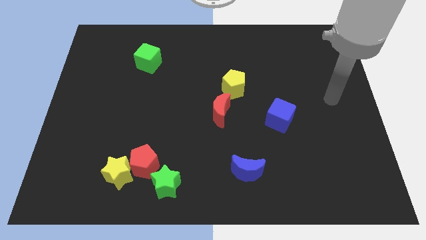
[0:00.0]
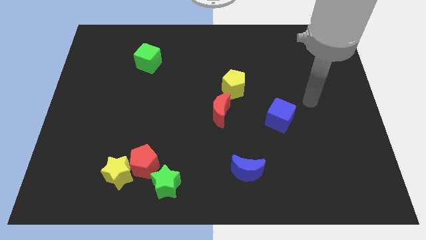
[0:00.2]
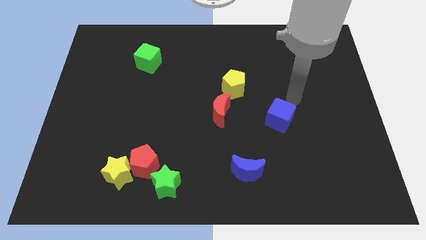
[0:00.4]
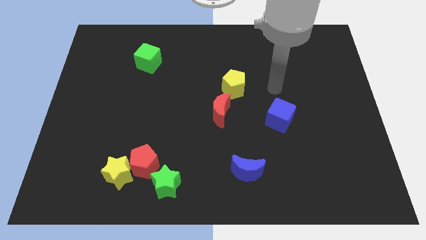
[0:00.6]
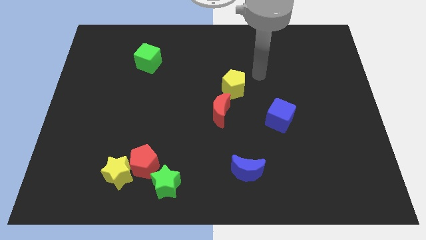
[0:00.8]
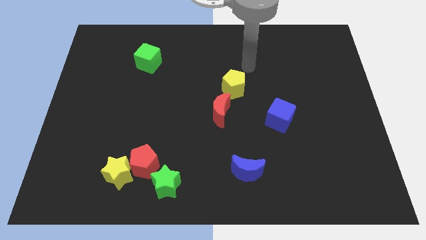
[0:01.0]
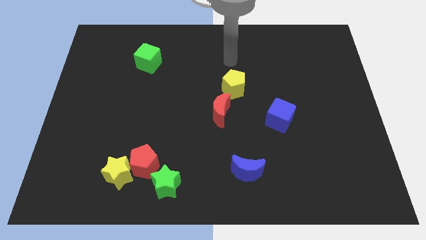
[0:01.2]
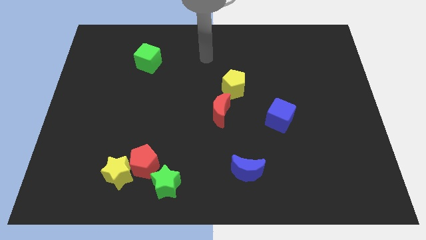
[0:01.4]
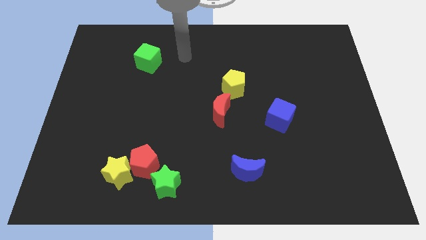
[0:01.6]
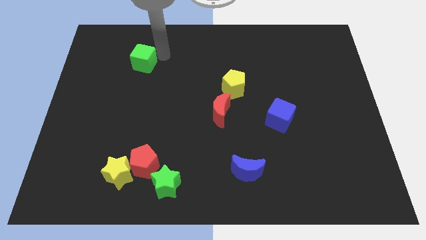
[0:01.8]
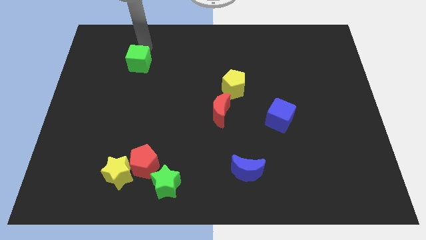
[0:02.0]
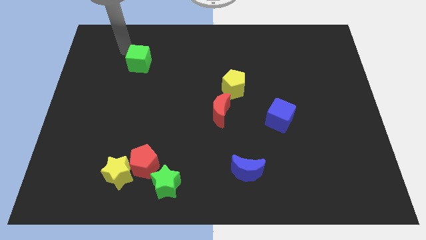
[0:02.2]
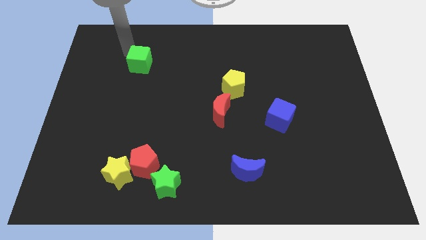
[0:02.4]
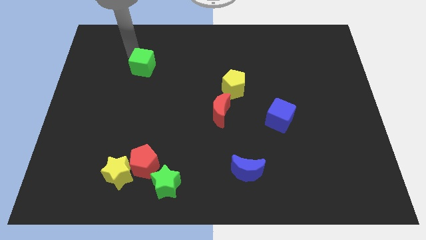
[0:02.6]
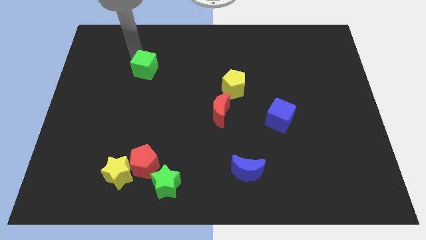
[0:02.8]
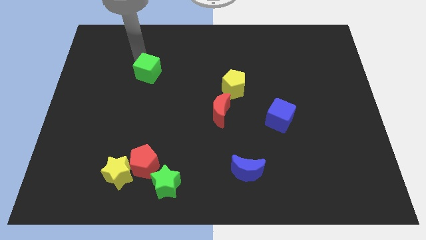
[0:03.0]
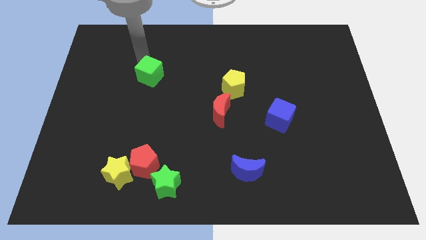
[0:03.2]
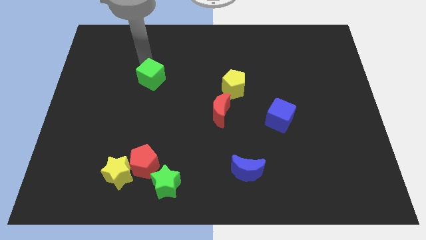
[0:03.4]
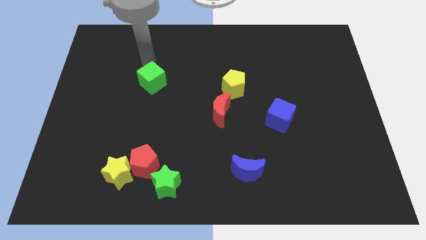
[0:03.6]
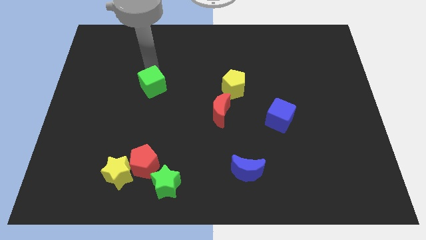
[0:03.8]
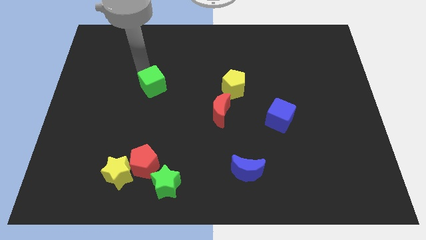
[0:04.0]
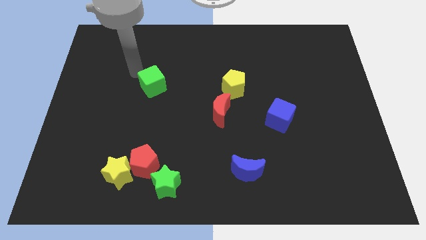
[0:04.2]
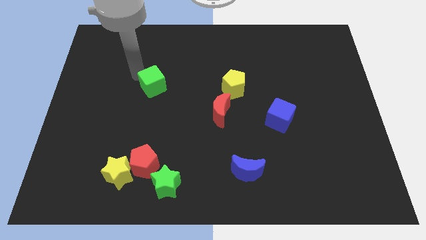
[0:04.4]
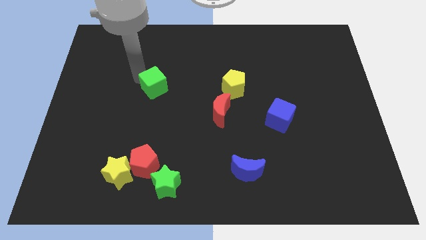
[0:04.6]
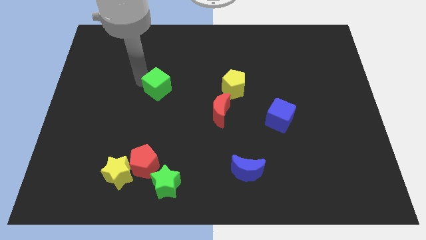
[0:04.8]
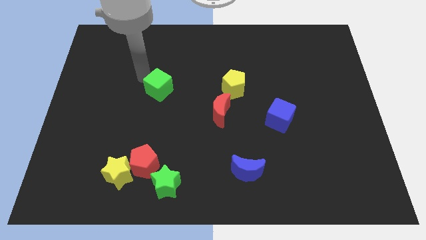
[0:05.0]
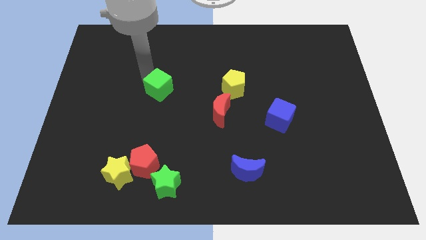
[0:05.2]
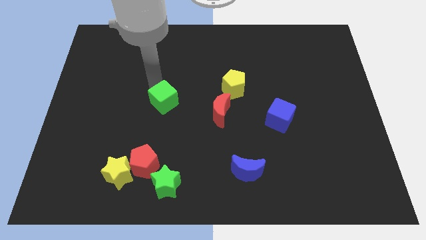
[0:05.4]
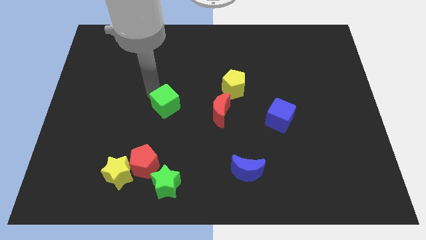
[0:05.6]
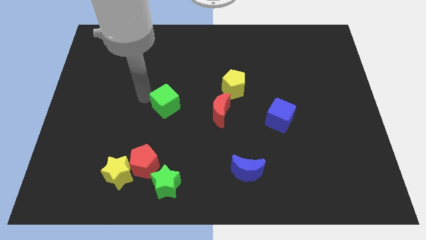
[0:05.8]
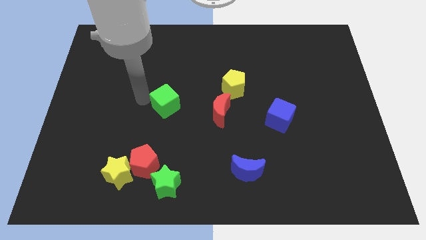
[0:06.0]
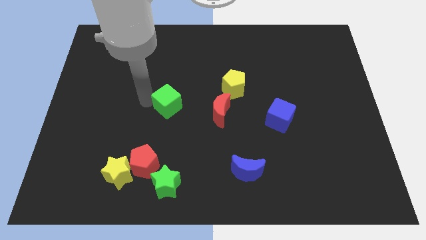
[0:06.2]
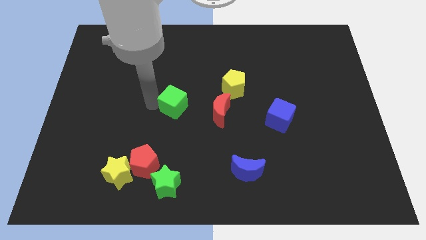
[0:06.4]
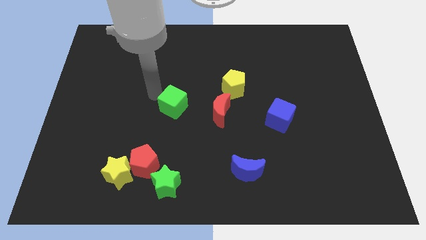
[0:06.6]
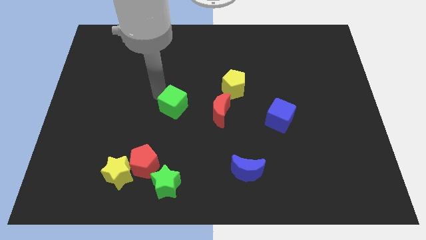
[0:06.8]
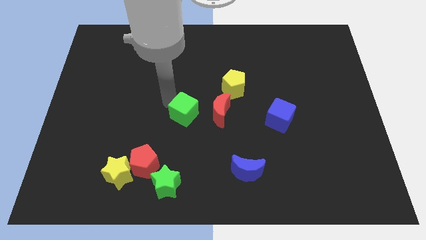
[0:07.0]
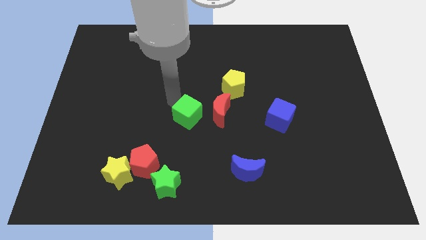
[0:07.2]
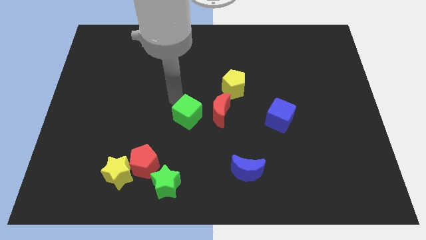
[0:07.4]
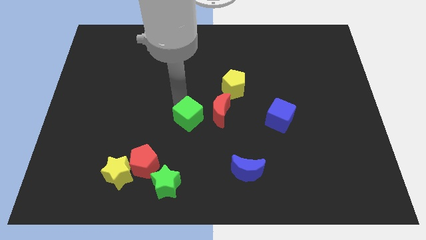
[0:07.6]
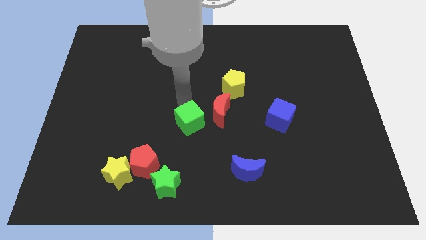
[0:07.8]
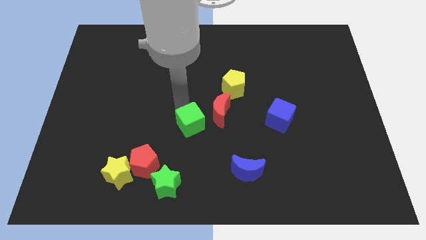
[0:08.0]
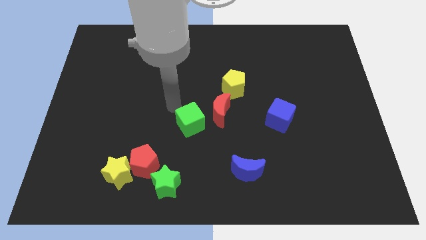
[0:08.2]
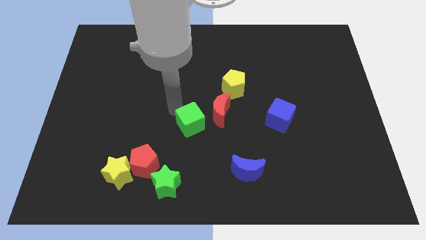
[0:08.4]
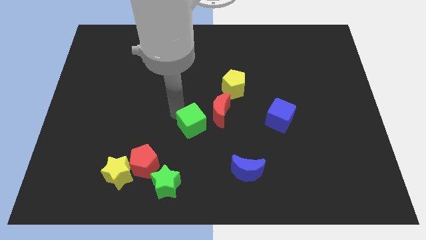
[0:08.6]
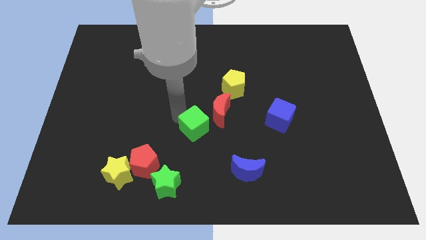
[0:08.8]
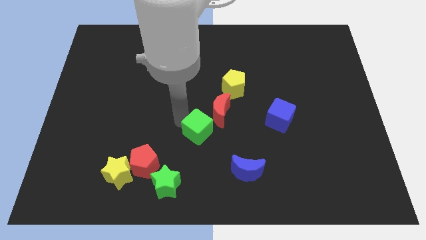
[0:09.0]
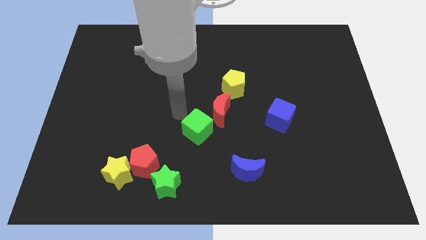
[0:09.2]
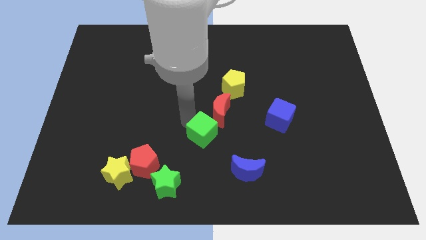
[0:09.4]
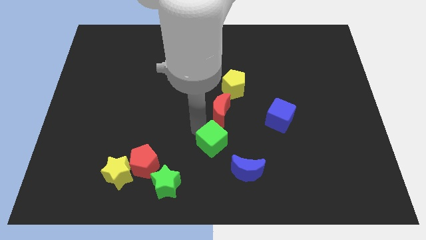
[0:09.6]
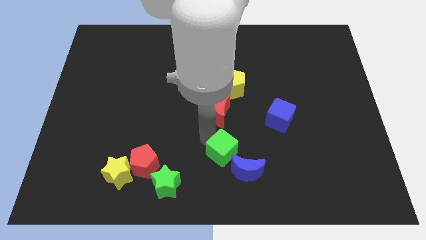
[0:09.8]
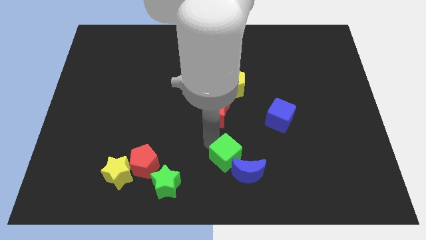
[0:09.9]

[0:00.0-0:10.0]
slide the green cube towards the blue moon

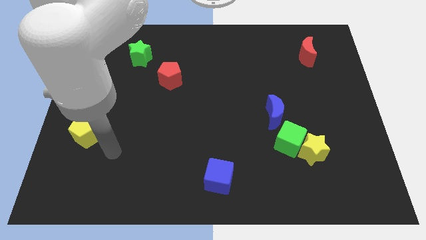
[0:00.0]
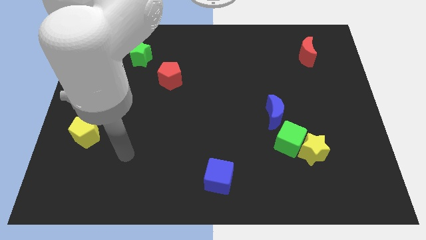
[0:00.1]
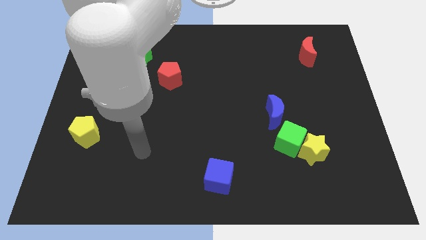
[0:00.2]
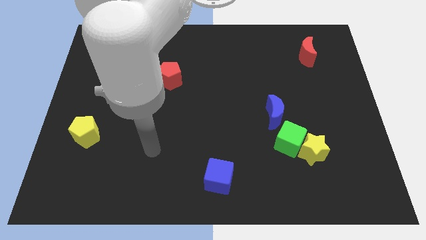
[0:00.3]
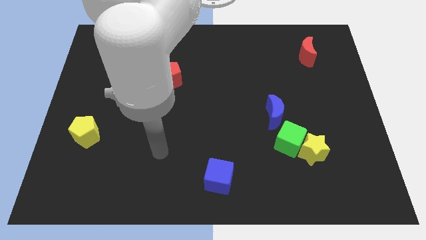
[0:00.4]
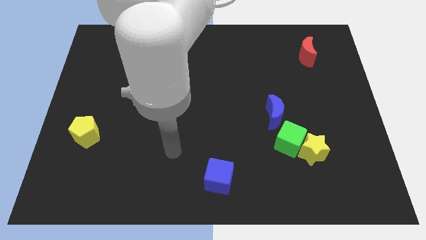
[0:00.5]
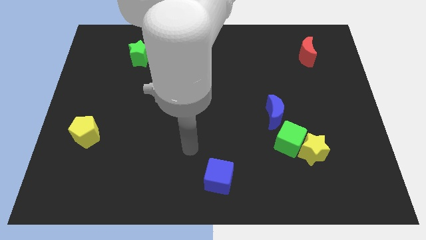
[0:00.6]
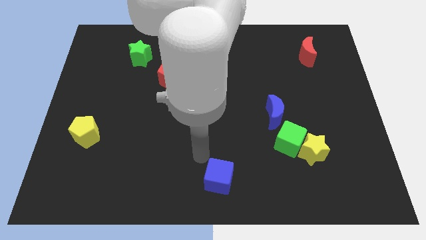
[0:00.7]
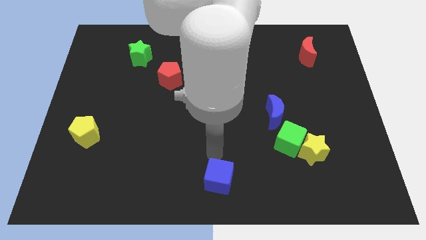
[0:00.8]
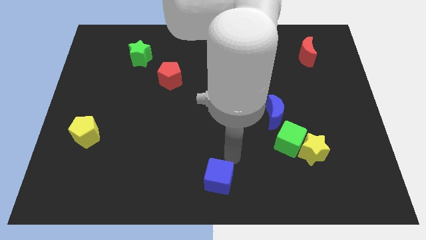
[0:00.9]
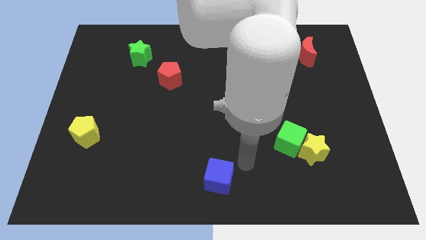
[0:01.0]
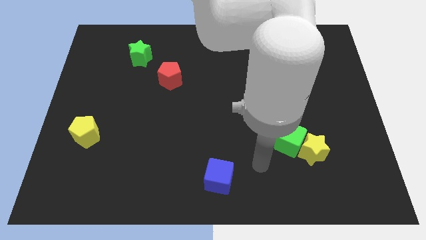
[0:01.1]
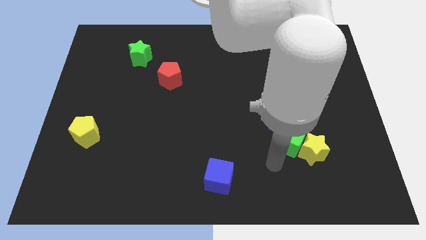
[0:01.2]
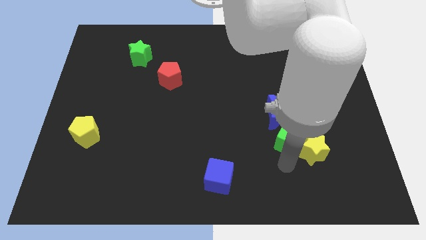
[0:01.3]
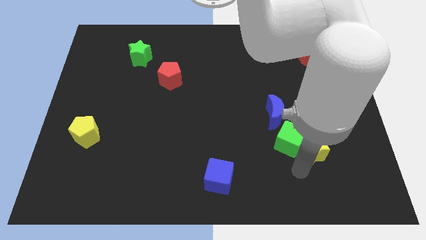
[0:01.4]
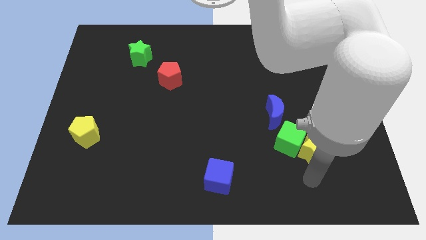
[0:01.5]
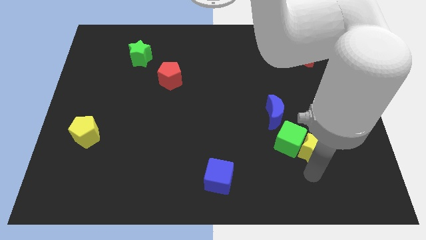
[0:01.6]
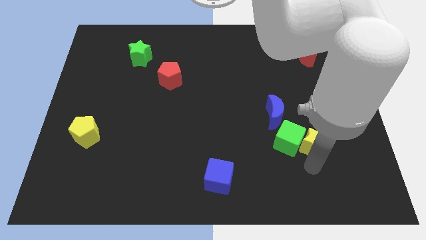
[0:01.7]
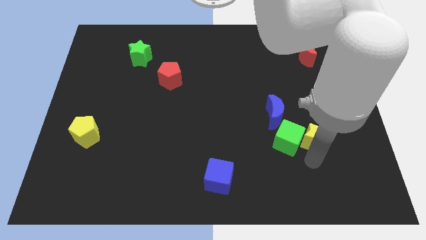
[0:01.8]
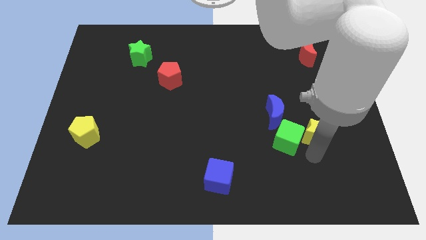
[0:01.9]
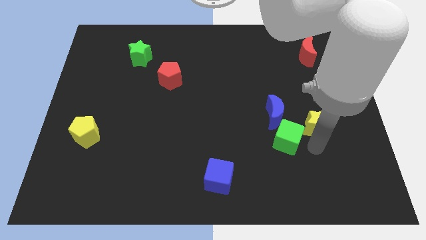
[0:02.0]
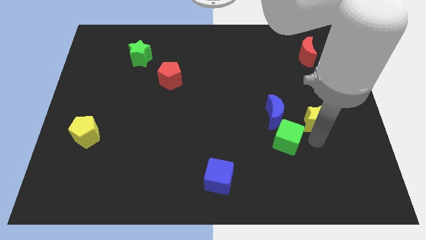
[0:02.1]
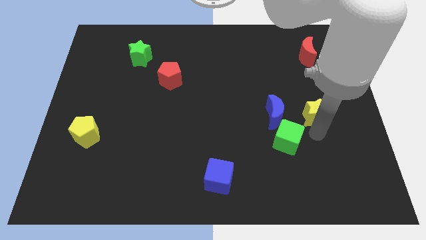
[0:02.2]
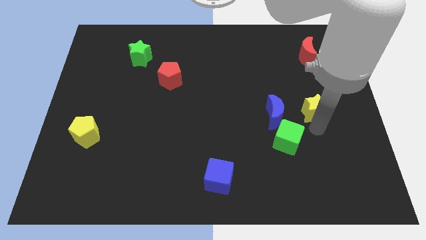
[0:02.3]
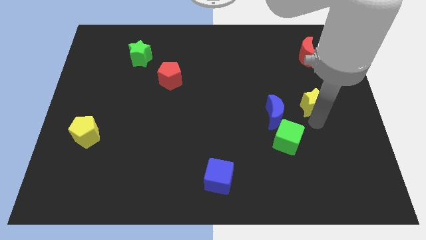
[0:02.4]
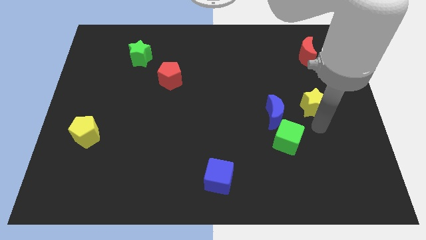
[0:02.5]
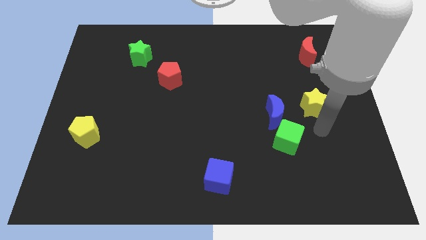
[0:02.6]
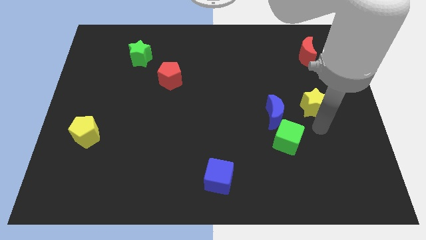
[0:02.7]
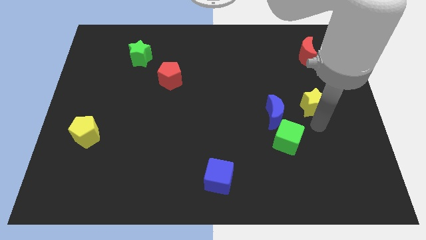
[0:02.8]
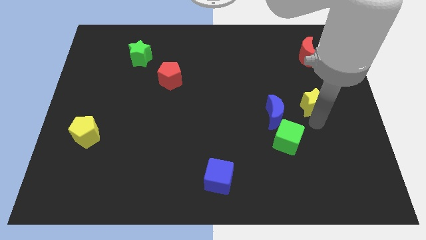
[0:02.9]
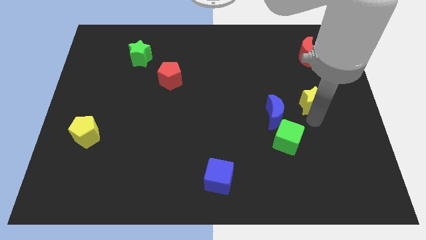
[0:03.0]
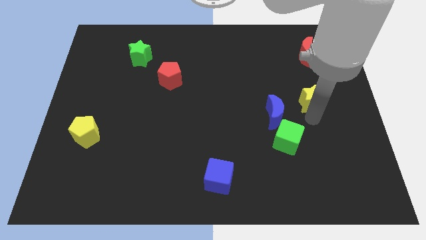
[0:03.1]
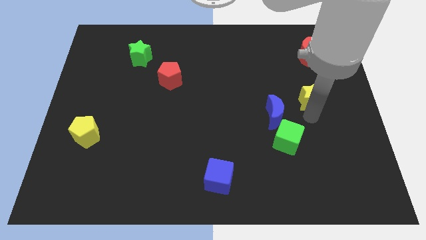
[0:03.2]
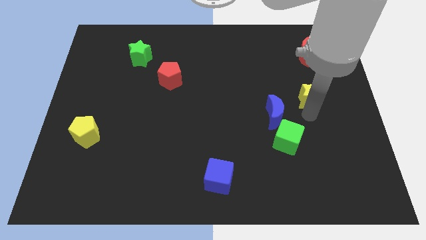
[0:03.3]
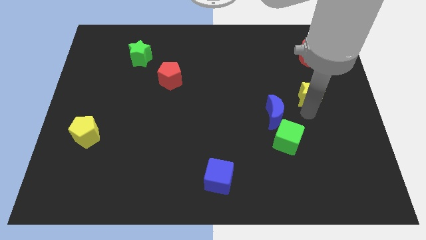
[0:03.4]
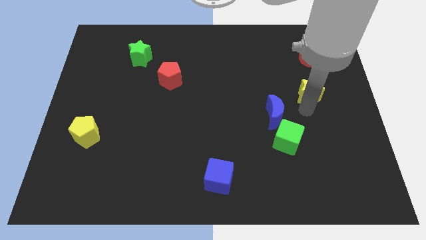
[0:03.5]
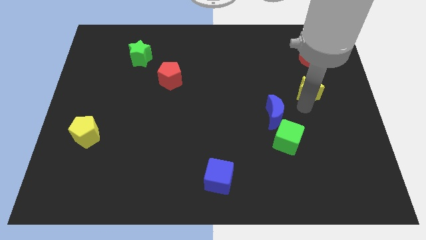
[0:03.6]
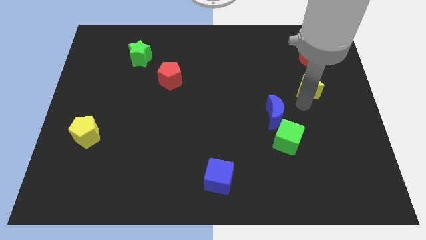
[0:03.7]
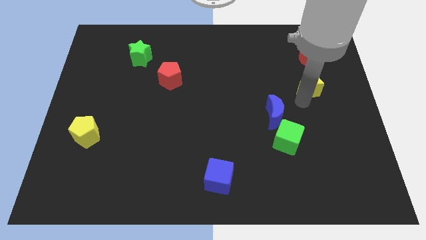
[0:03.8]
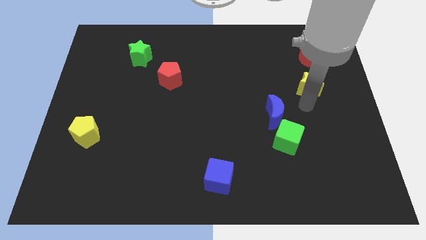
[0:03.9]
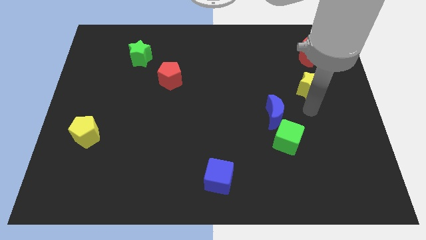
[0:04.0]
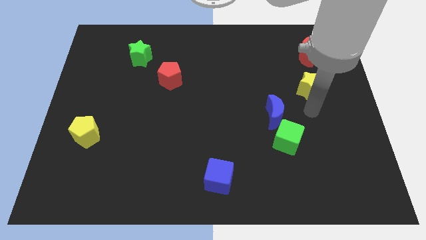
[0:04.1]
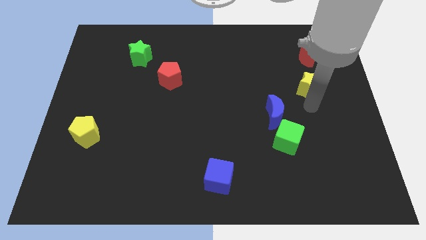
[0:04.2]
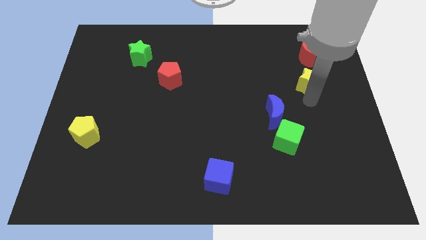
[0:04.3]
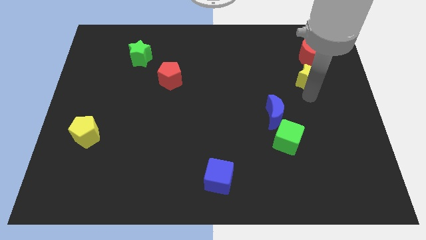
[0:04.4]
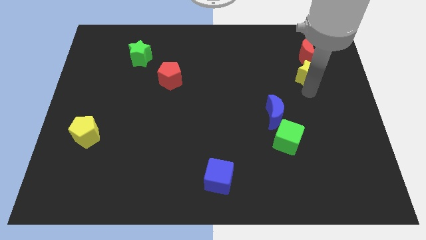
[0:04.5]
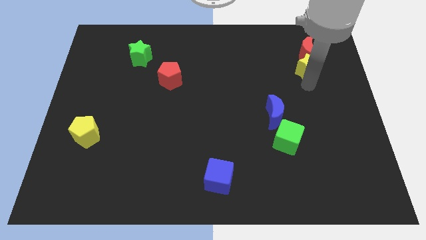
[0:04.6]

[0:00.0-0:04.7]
slide the yellow star to the red moon
